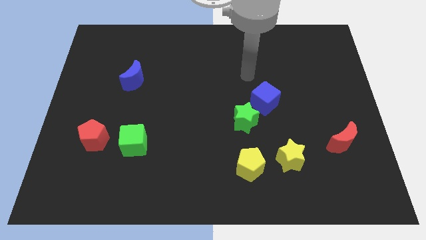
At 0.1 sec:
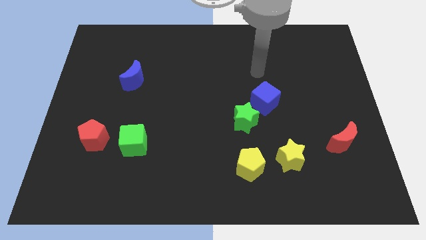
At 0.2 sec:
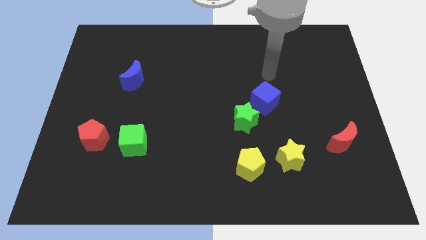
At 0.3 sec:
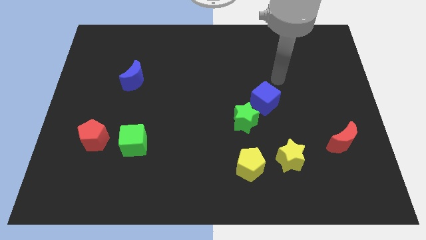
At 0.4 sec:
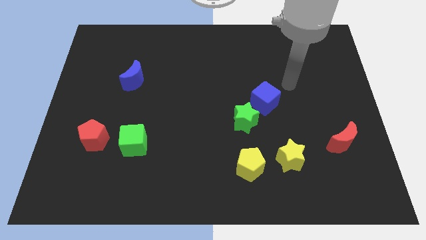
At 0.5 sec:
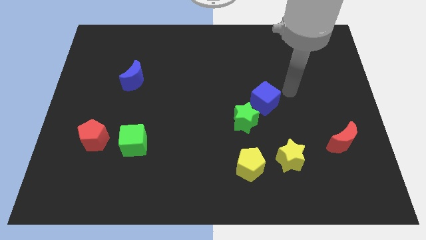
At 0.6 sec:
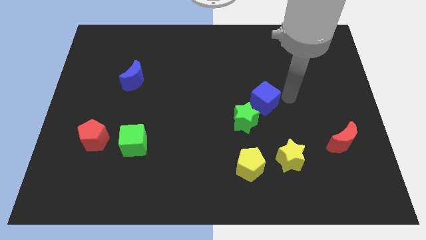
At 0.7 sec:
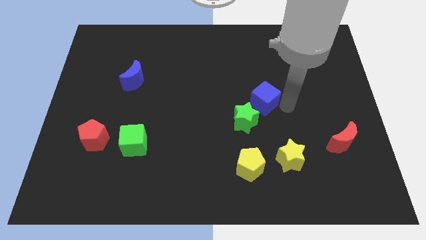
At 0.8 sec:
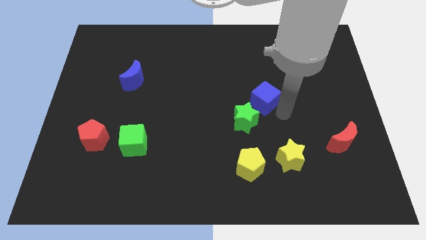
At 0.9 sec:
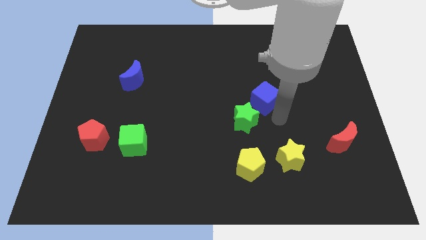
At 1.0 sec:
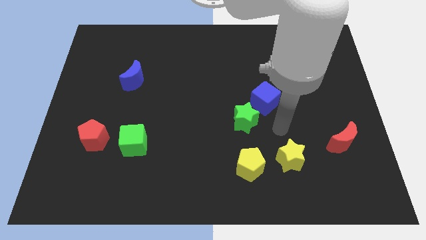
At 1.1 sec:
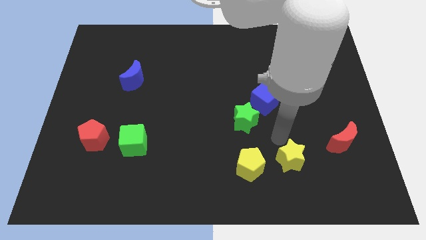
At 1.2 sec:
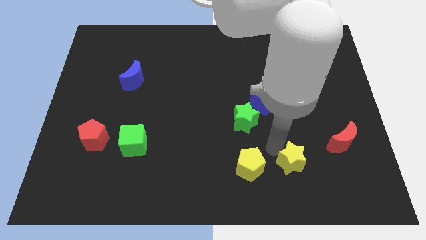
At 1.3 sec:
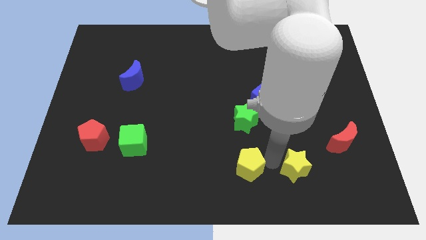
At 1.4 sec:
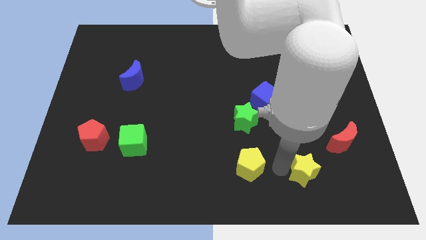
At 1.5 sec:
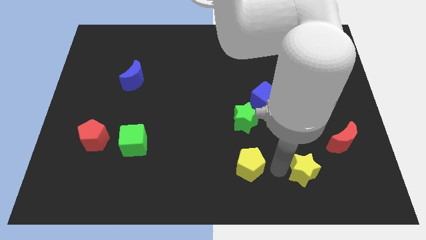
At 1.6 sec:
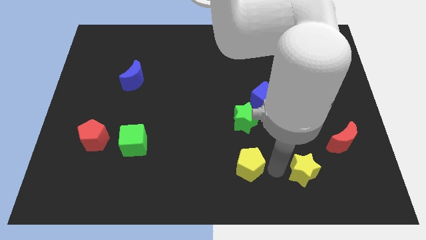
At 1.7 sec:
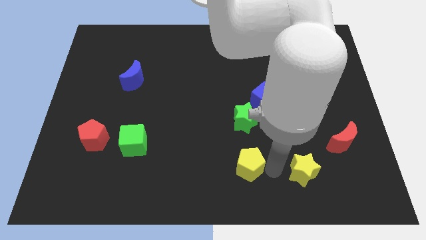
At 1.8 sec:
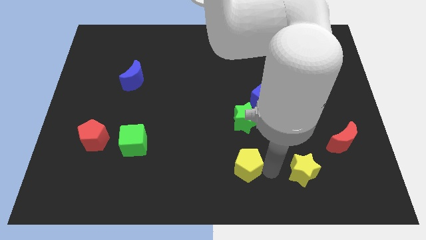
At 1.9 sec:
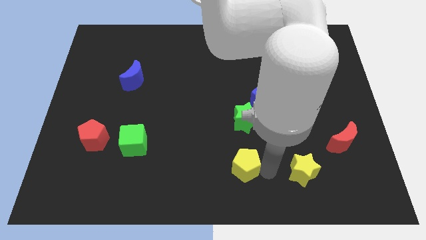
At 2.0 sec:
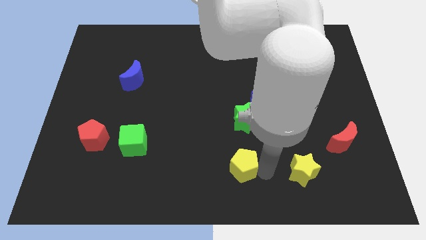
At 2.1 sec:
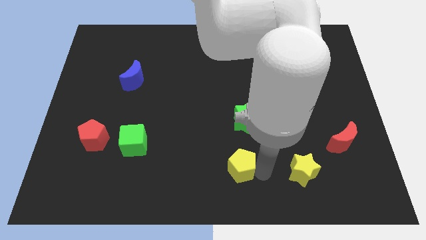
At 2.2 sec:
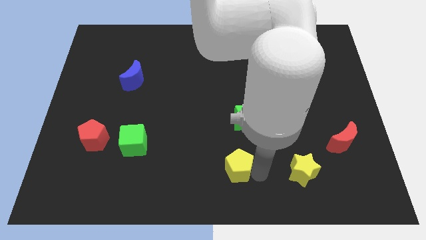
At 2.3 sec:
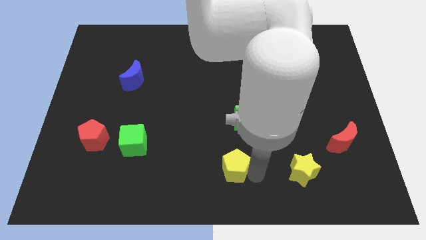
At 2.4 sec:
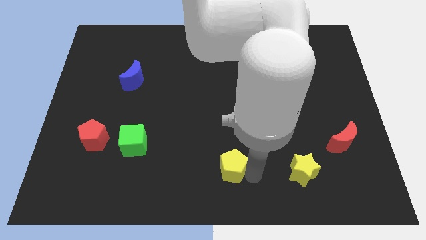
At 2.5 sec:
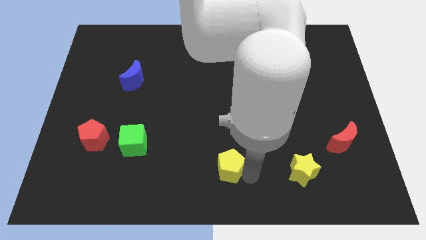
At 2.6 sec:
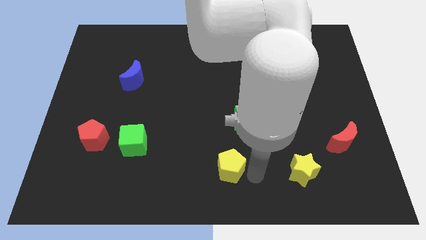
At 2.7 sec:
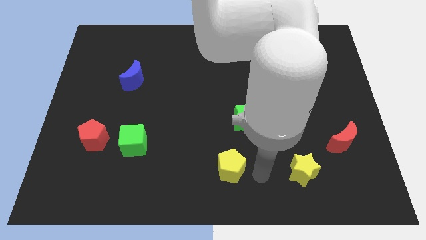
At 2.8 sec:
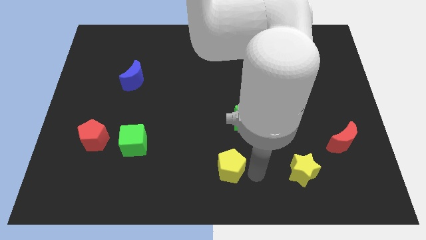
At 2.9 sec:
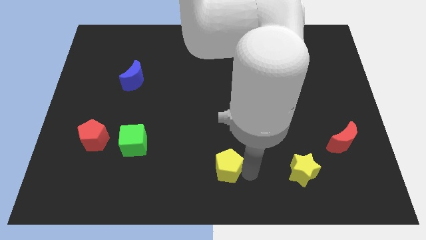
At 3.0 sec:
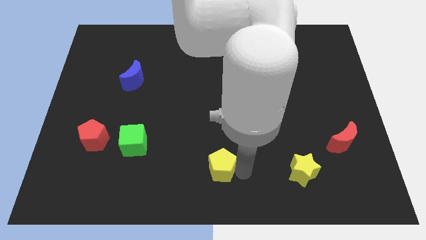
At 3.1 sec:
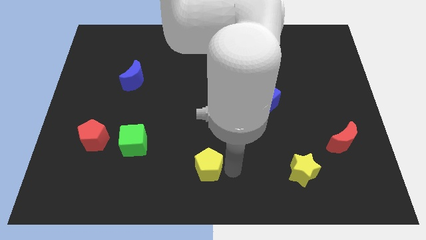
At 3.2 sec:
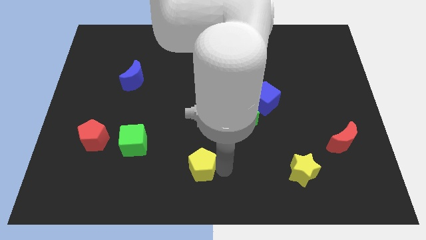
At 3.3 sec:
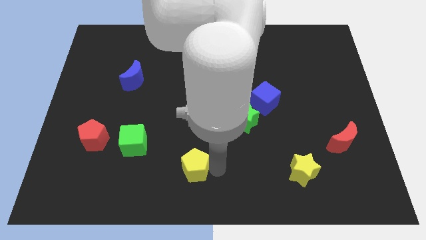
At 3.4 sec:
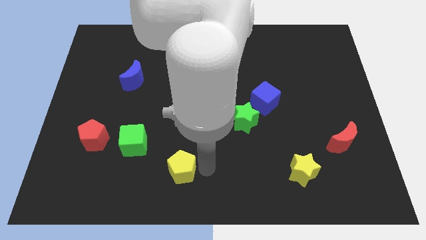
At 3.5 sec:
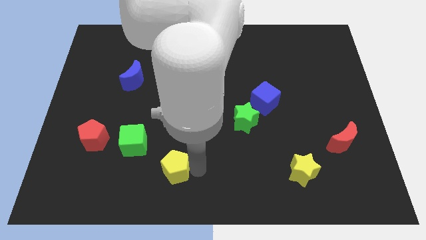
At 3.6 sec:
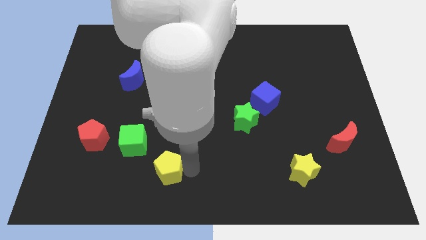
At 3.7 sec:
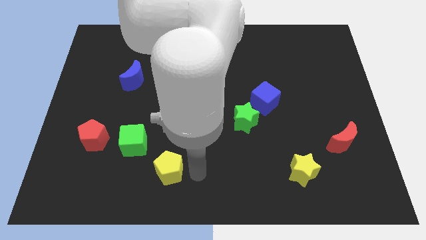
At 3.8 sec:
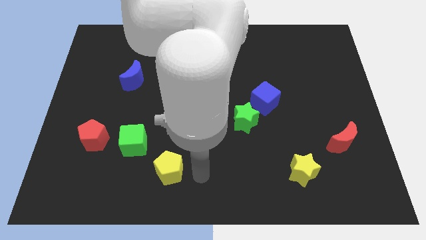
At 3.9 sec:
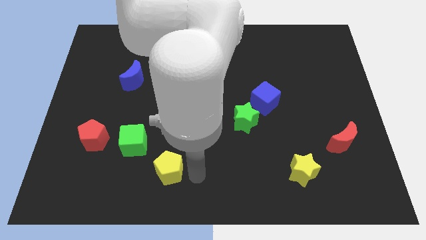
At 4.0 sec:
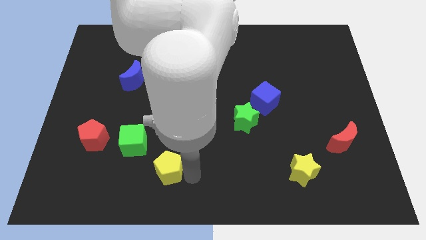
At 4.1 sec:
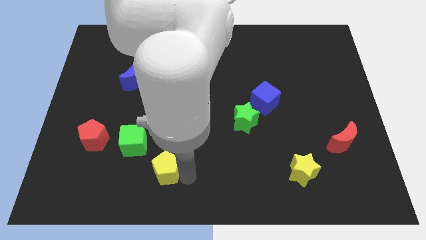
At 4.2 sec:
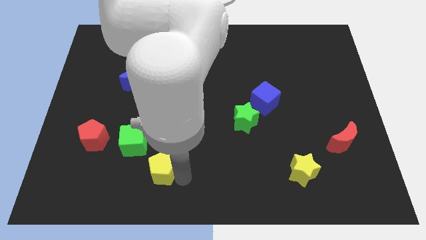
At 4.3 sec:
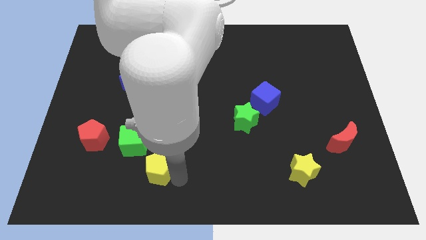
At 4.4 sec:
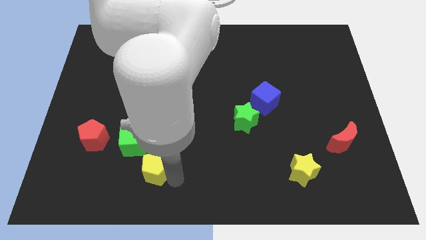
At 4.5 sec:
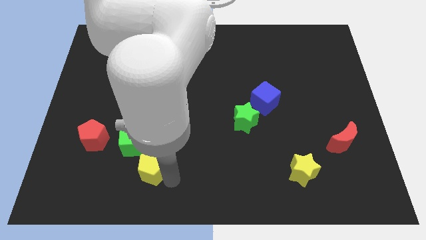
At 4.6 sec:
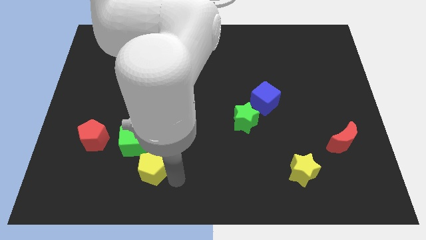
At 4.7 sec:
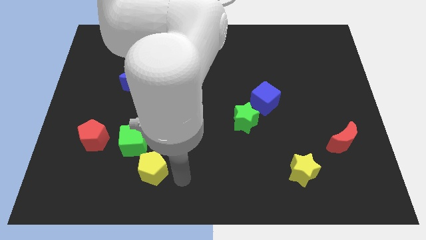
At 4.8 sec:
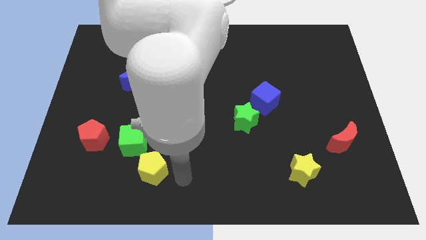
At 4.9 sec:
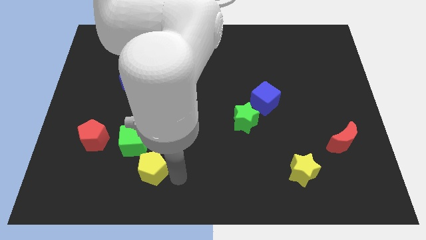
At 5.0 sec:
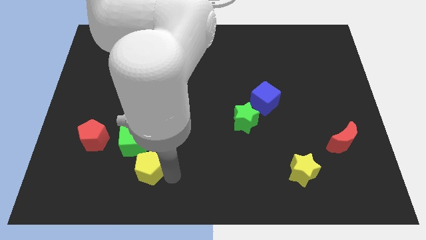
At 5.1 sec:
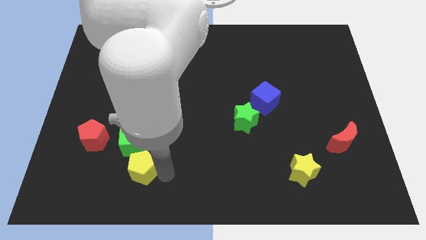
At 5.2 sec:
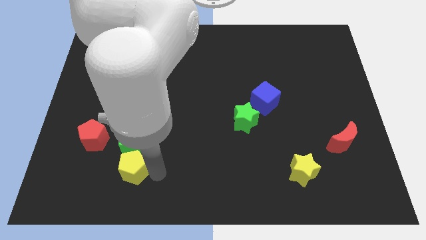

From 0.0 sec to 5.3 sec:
put the yellow pentagon diagonally down and to the right of the red pentagon
